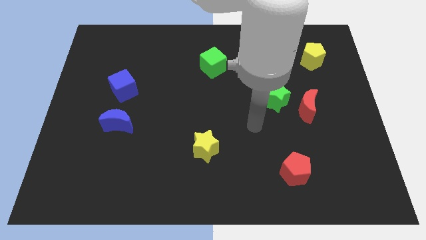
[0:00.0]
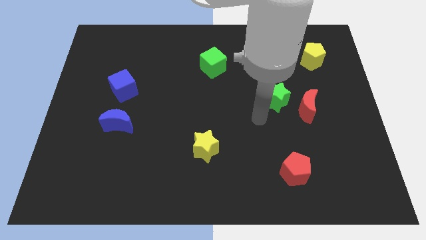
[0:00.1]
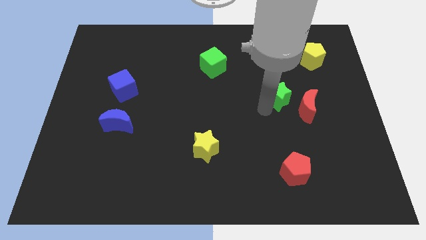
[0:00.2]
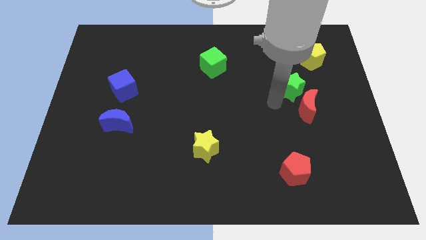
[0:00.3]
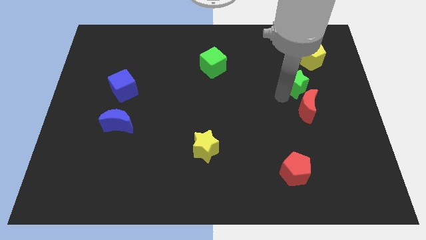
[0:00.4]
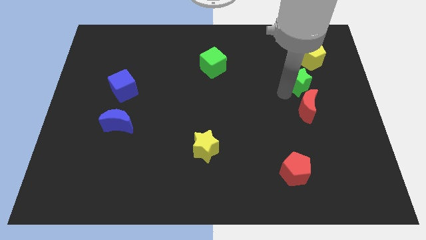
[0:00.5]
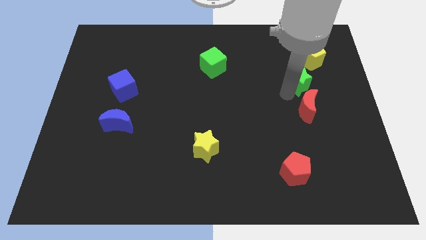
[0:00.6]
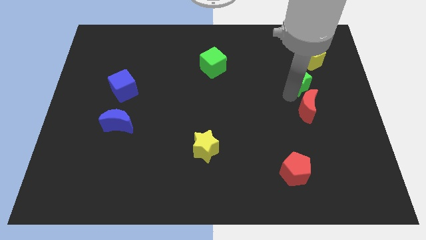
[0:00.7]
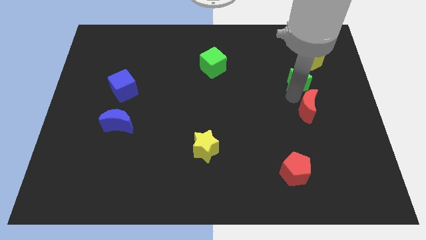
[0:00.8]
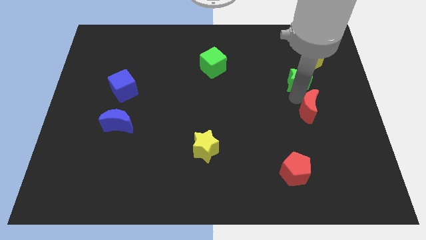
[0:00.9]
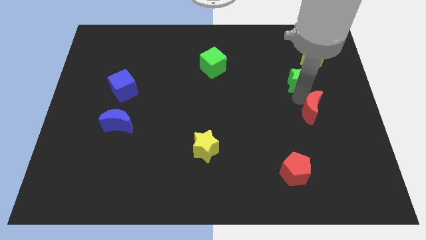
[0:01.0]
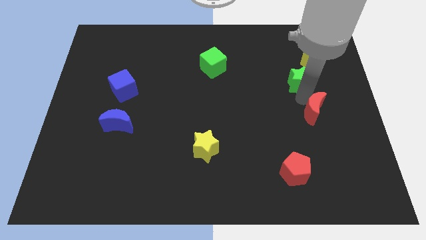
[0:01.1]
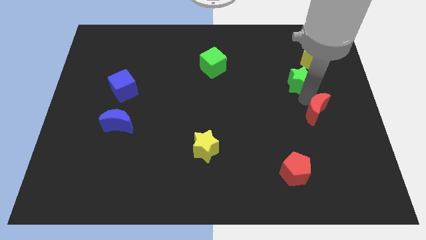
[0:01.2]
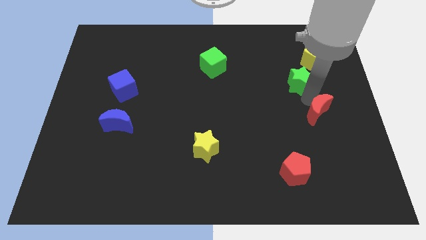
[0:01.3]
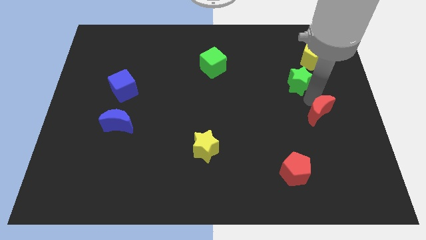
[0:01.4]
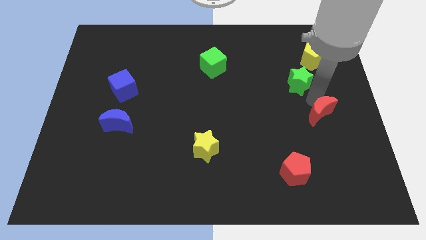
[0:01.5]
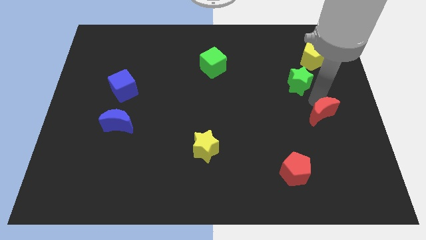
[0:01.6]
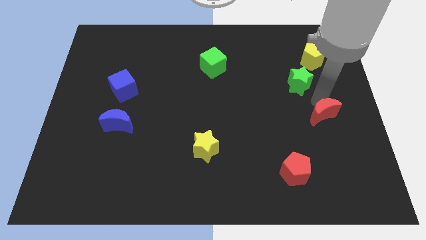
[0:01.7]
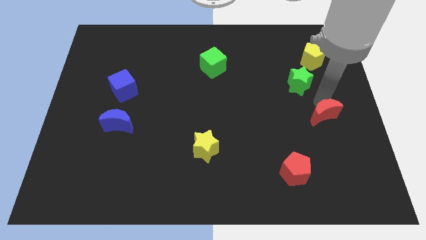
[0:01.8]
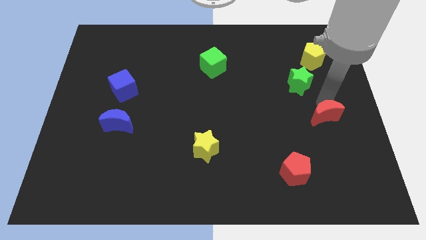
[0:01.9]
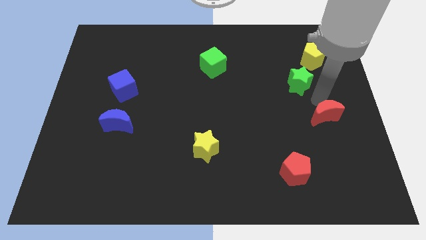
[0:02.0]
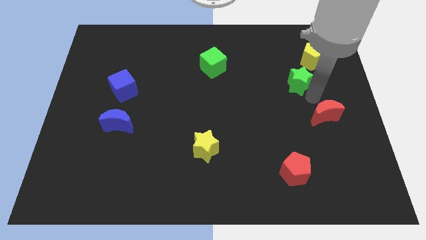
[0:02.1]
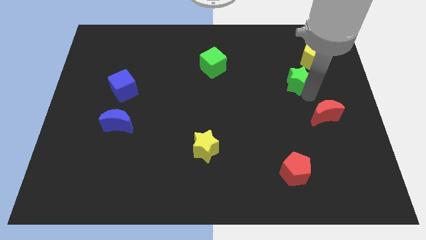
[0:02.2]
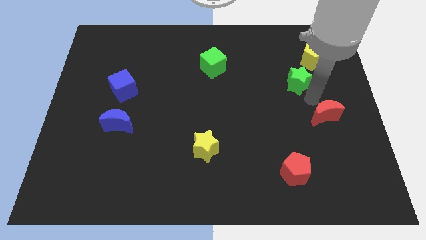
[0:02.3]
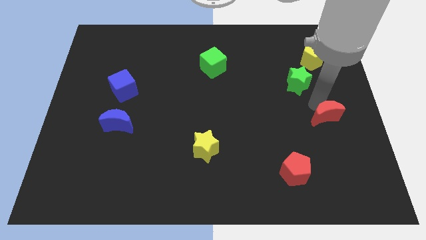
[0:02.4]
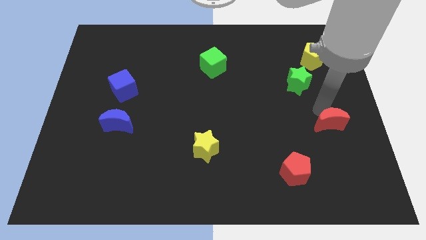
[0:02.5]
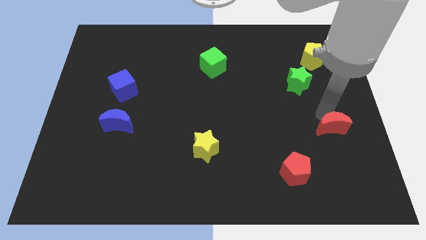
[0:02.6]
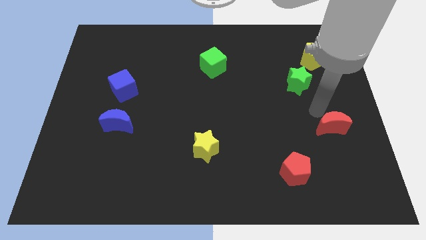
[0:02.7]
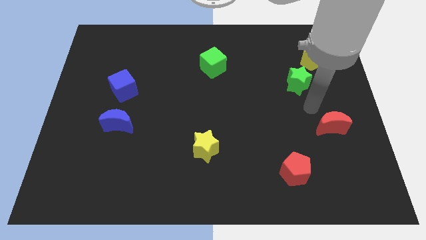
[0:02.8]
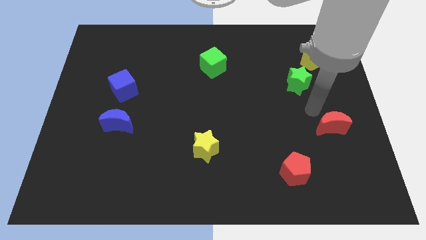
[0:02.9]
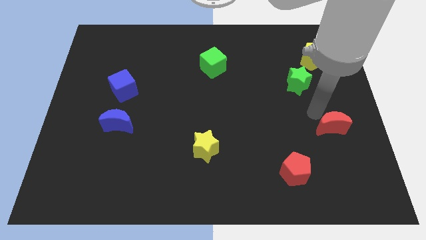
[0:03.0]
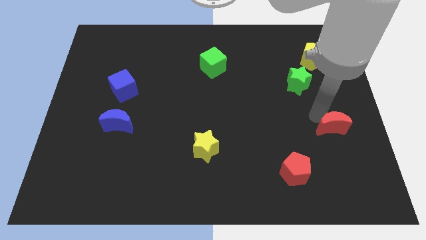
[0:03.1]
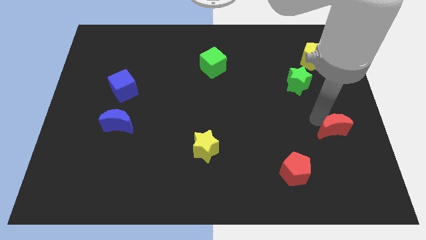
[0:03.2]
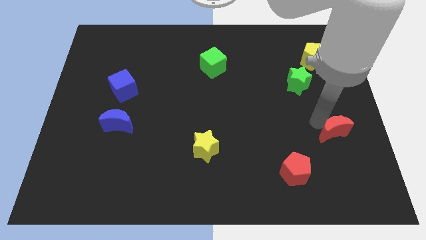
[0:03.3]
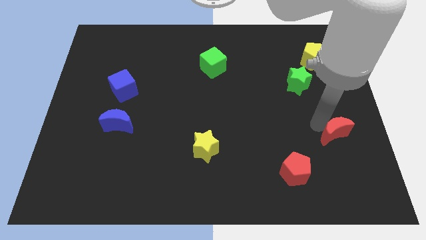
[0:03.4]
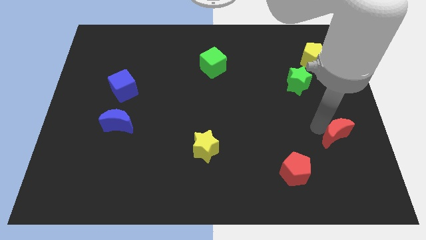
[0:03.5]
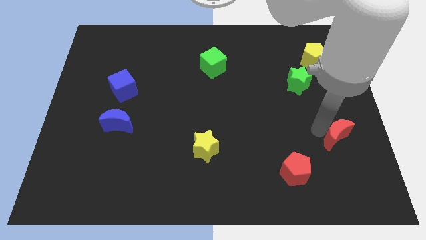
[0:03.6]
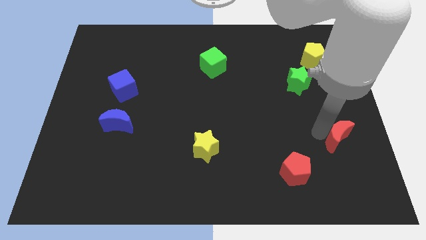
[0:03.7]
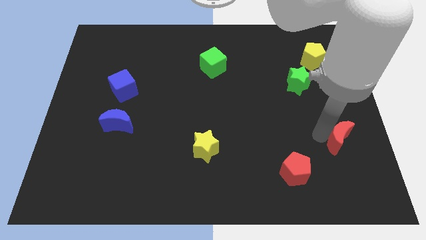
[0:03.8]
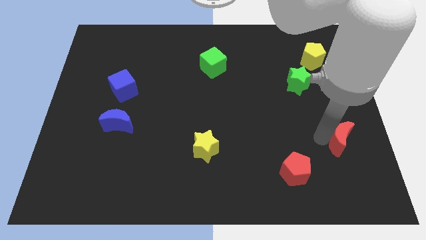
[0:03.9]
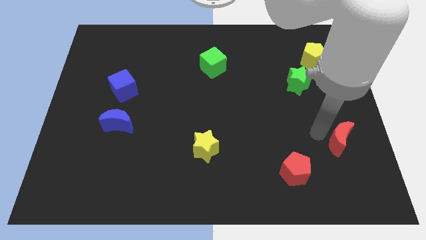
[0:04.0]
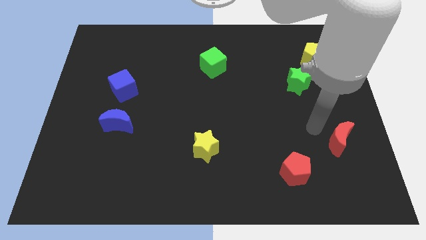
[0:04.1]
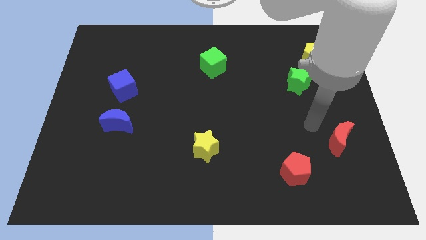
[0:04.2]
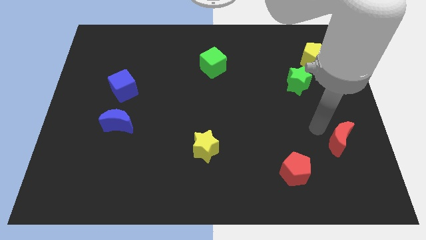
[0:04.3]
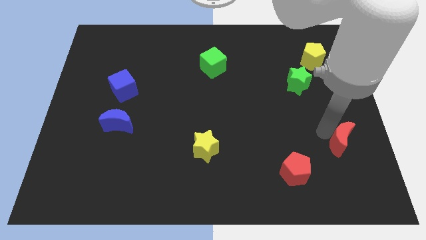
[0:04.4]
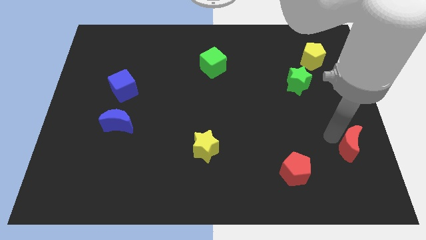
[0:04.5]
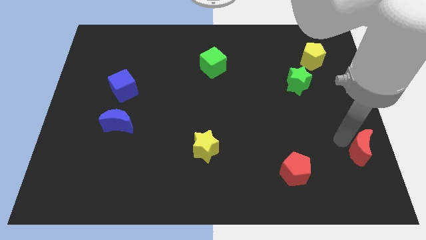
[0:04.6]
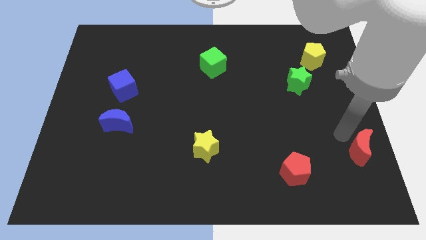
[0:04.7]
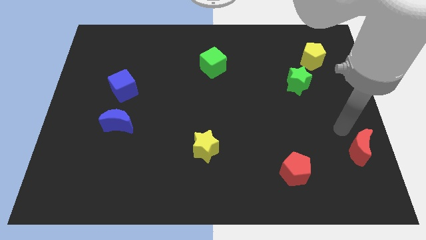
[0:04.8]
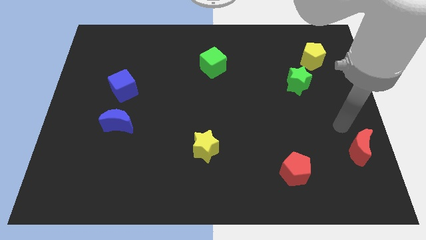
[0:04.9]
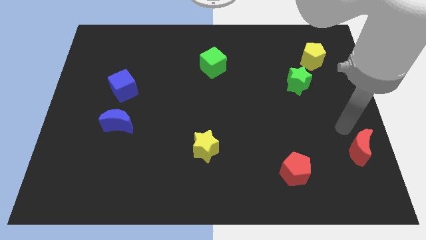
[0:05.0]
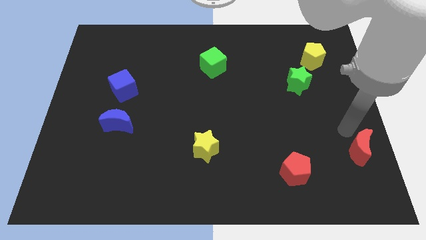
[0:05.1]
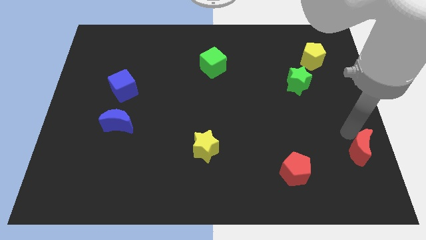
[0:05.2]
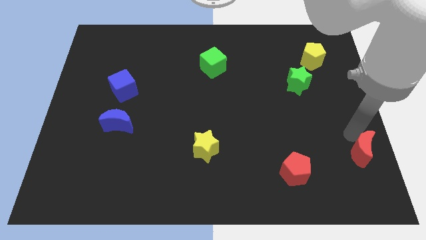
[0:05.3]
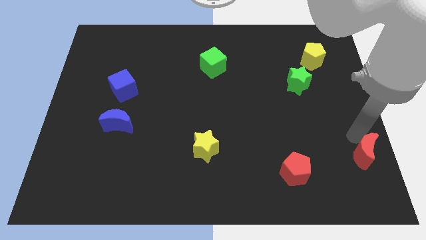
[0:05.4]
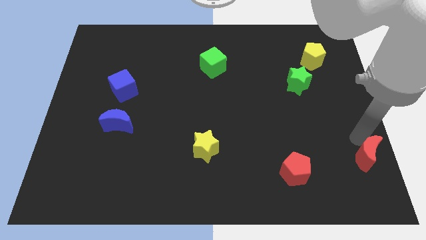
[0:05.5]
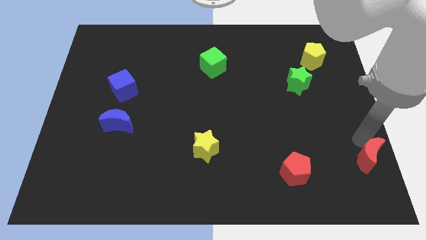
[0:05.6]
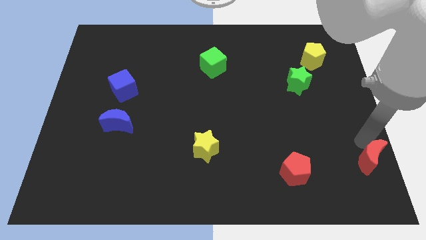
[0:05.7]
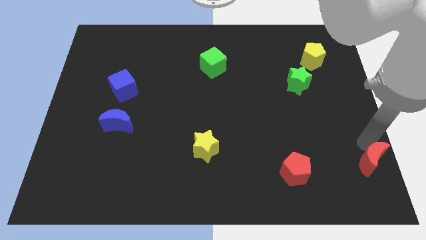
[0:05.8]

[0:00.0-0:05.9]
move the red moon to the bottom right of the board
